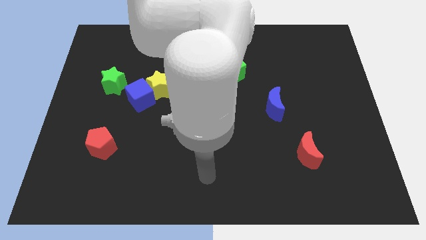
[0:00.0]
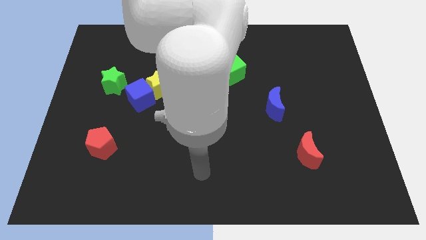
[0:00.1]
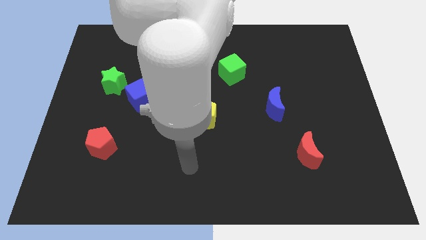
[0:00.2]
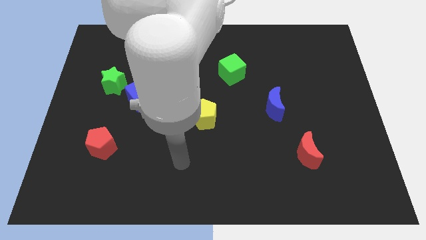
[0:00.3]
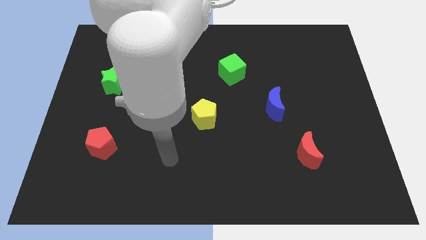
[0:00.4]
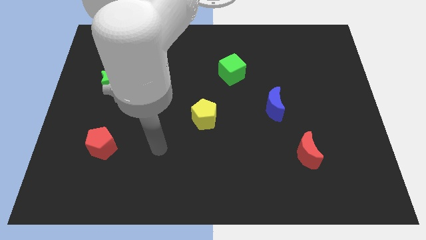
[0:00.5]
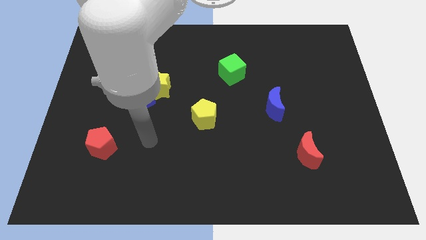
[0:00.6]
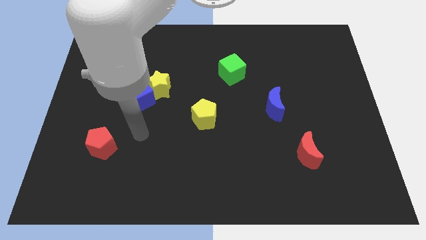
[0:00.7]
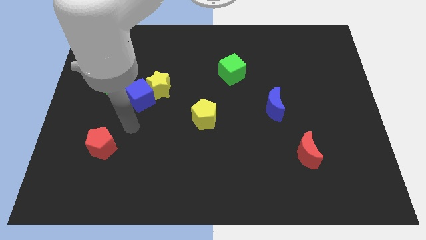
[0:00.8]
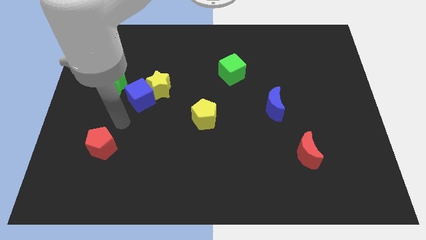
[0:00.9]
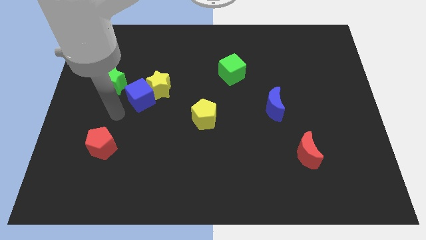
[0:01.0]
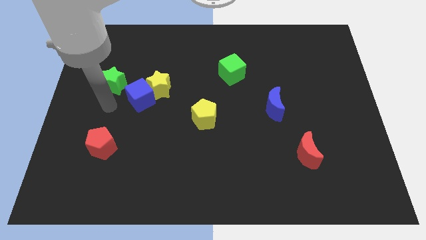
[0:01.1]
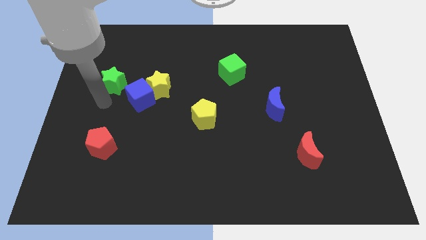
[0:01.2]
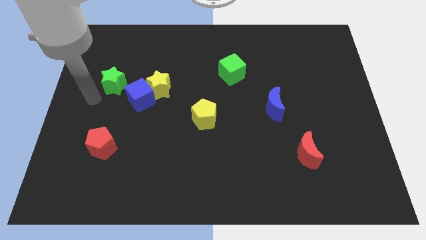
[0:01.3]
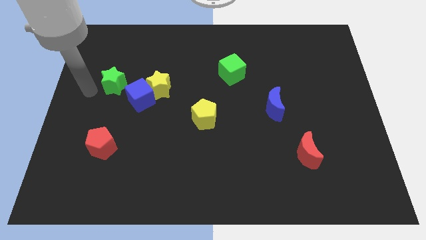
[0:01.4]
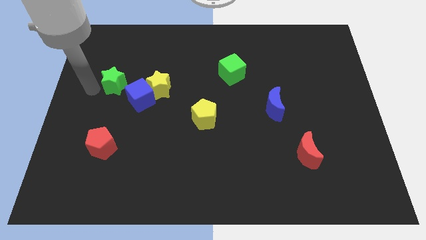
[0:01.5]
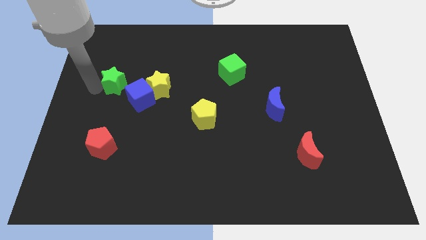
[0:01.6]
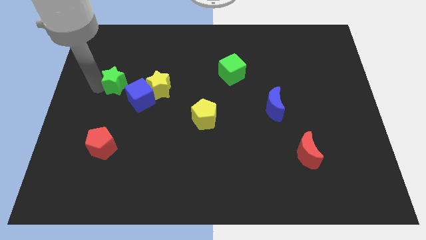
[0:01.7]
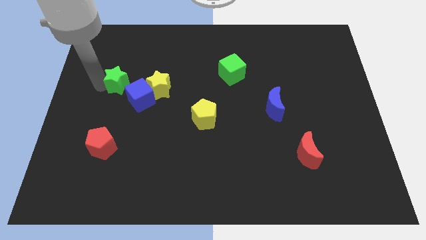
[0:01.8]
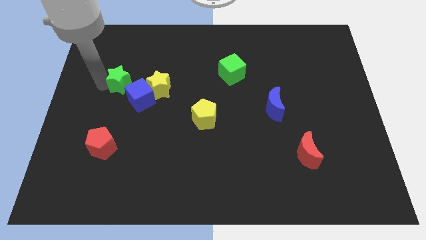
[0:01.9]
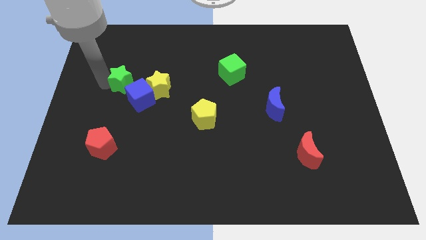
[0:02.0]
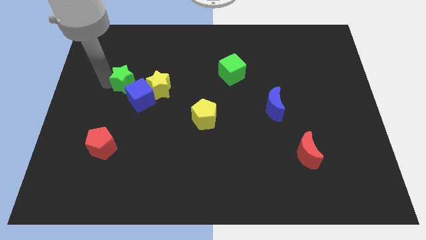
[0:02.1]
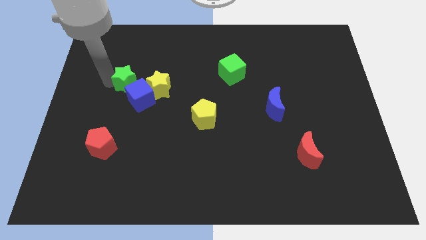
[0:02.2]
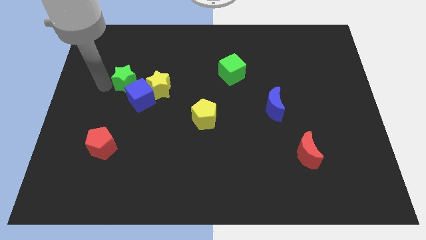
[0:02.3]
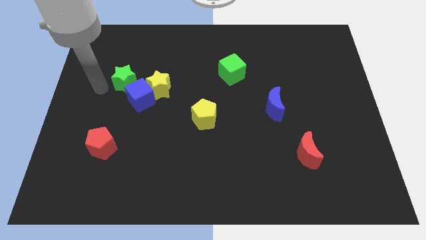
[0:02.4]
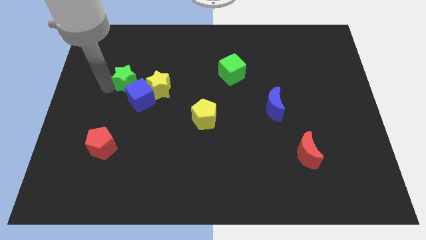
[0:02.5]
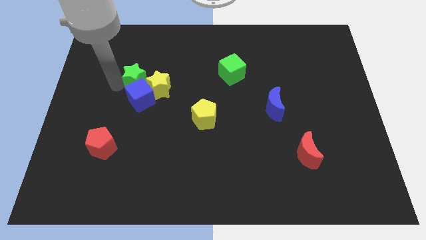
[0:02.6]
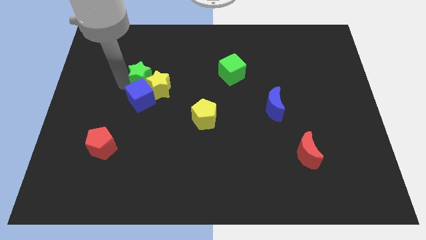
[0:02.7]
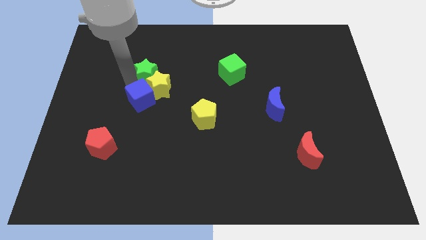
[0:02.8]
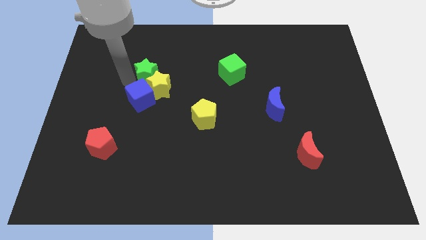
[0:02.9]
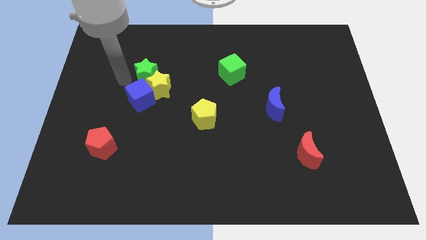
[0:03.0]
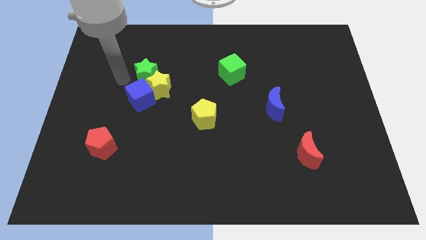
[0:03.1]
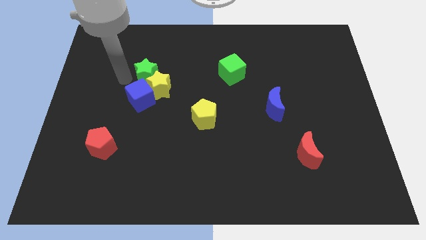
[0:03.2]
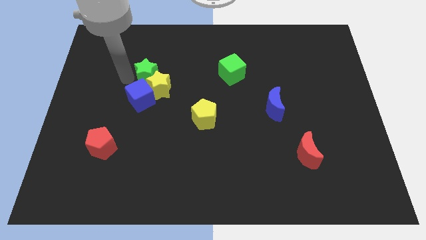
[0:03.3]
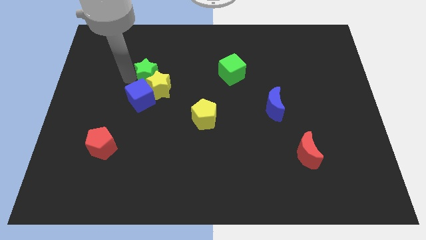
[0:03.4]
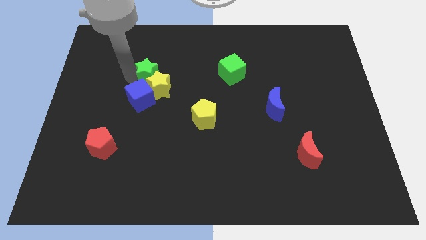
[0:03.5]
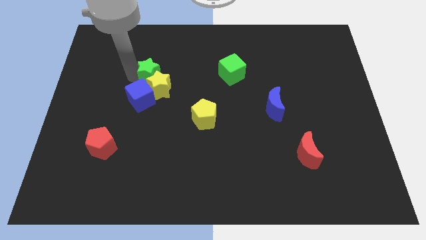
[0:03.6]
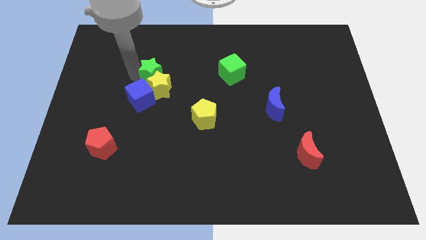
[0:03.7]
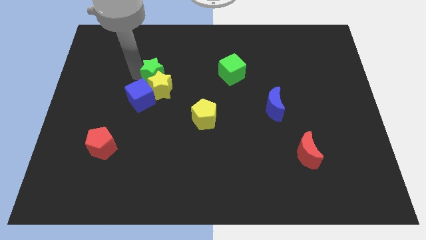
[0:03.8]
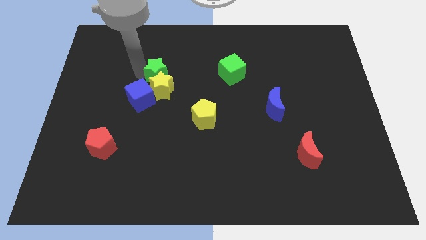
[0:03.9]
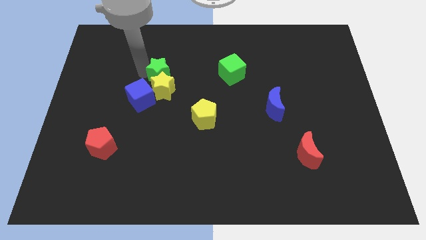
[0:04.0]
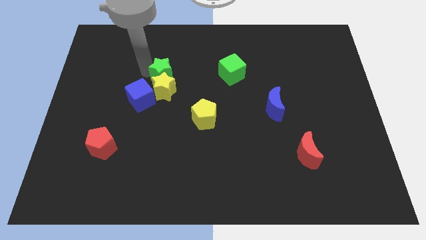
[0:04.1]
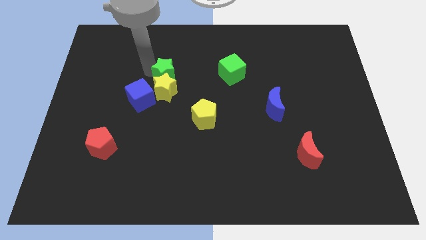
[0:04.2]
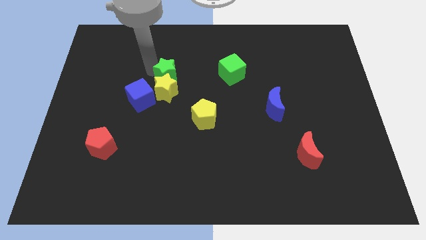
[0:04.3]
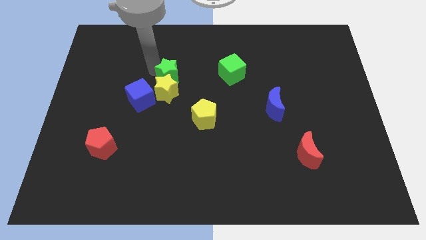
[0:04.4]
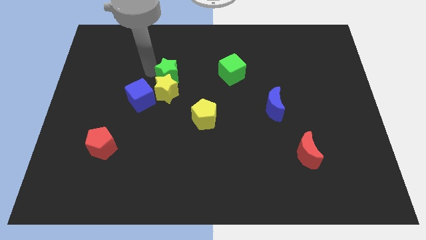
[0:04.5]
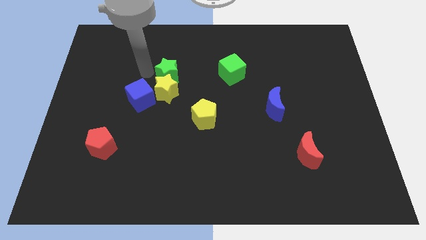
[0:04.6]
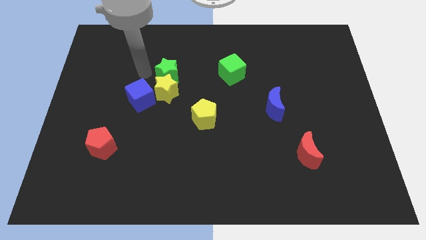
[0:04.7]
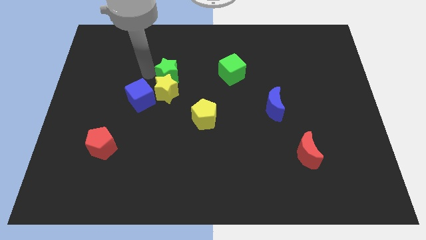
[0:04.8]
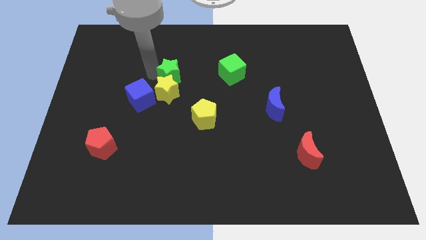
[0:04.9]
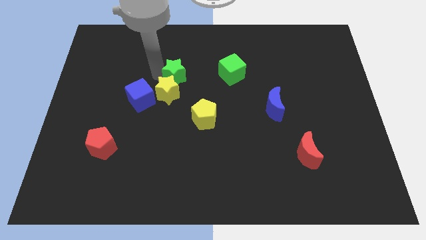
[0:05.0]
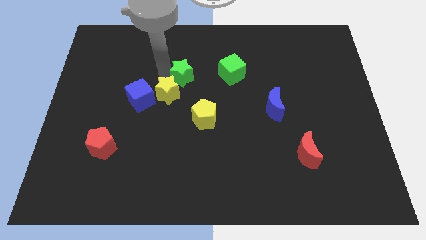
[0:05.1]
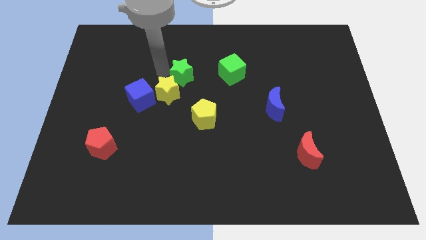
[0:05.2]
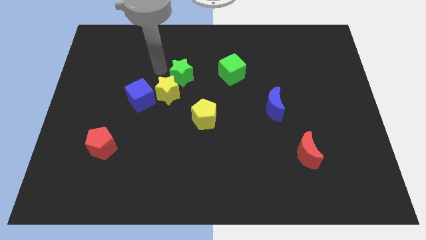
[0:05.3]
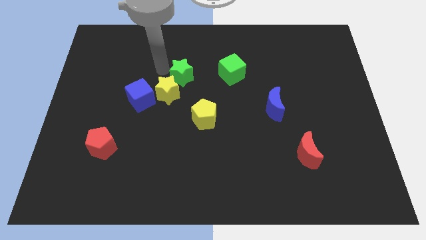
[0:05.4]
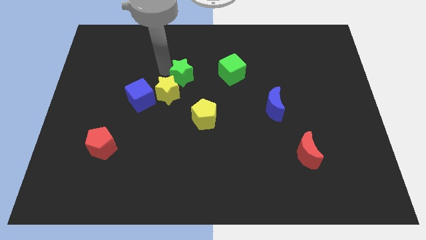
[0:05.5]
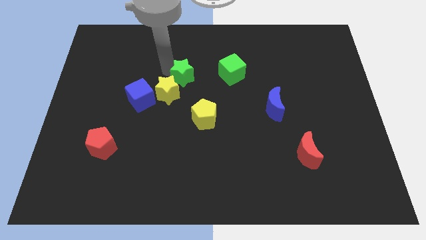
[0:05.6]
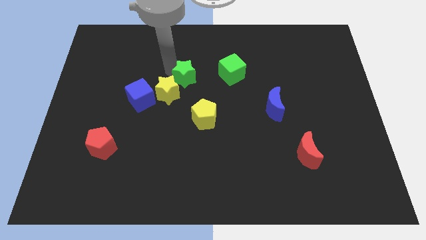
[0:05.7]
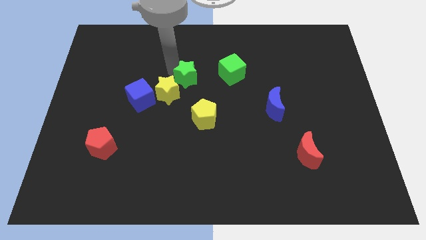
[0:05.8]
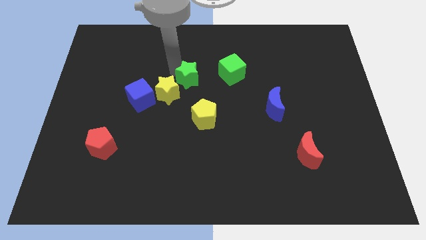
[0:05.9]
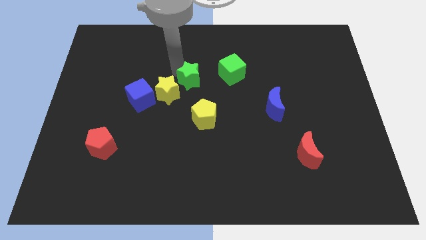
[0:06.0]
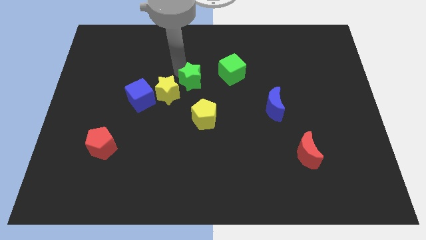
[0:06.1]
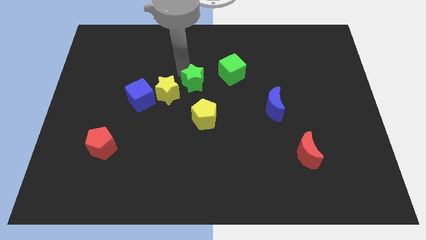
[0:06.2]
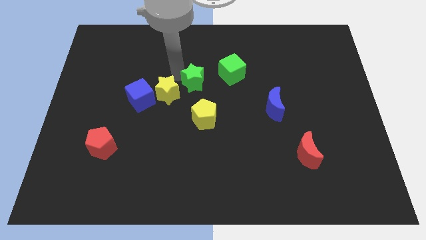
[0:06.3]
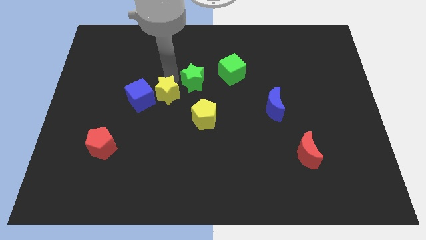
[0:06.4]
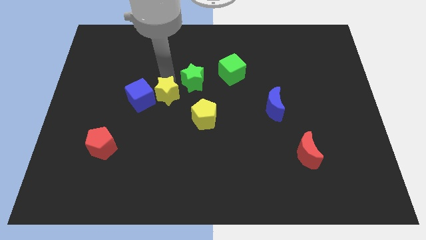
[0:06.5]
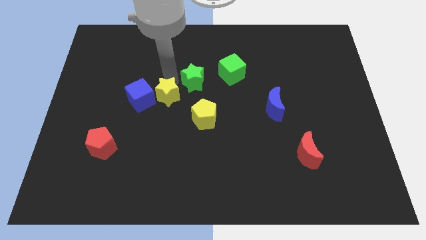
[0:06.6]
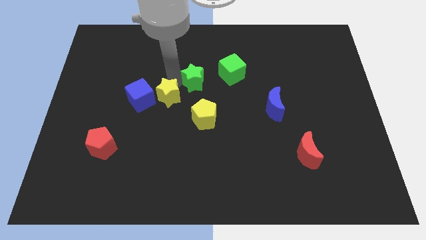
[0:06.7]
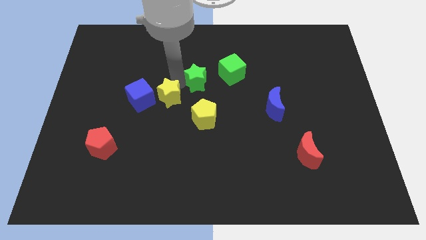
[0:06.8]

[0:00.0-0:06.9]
move the green star right

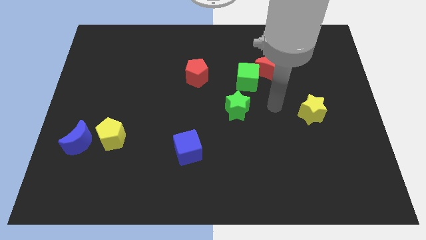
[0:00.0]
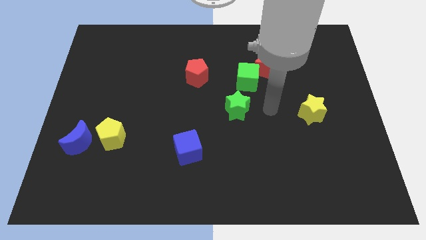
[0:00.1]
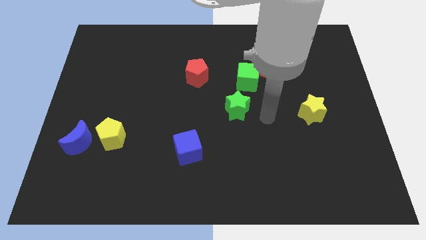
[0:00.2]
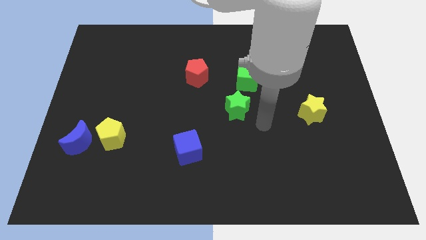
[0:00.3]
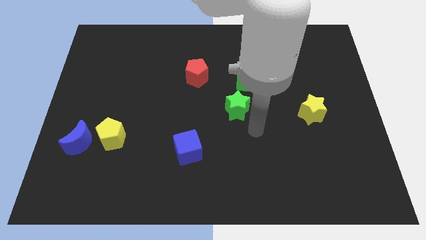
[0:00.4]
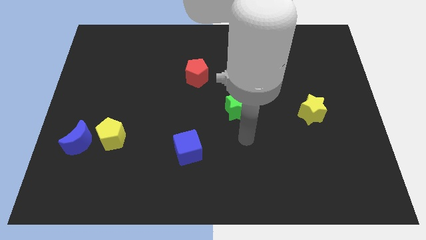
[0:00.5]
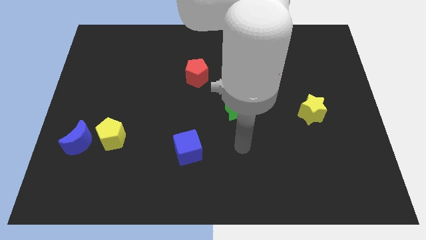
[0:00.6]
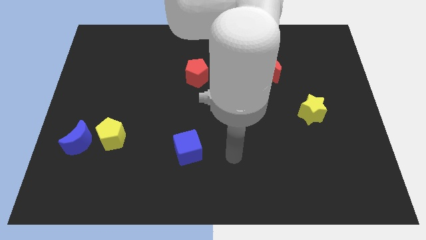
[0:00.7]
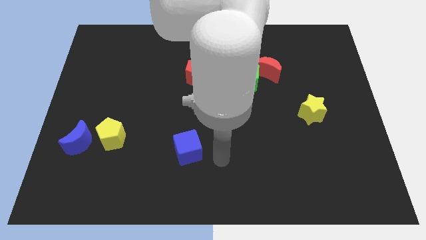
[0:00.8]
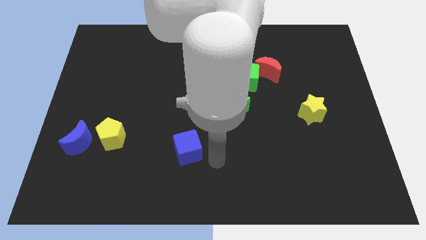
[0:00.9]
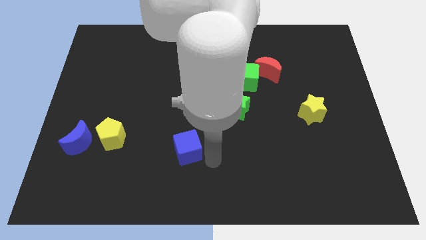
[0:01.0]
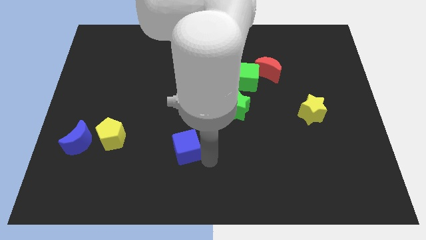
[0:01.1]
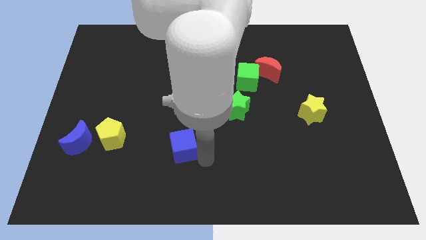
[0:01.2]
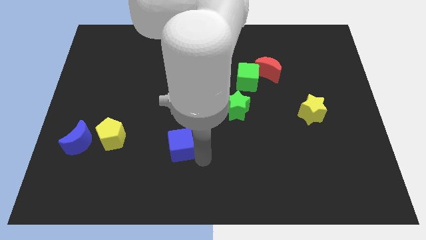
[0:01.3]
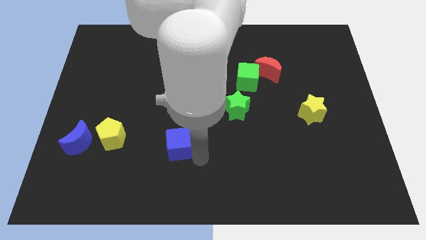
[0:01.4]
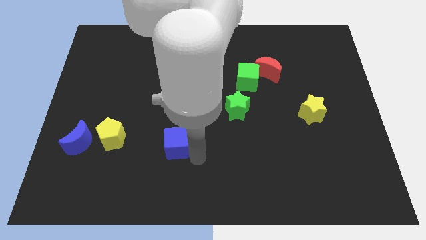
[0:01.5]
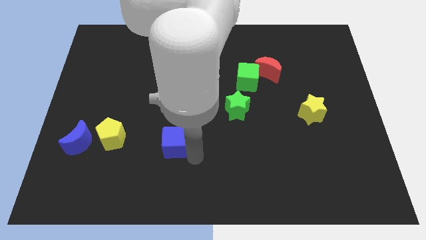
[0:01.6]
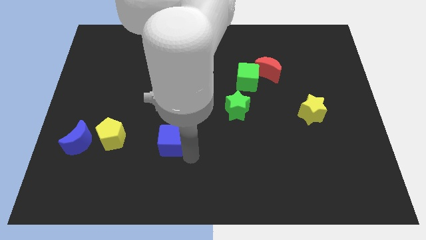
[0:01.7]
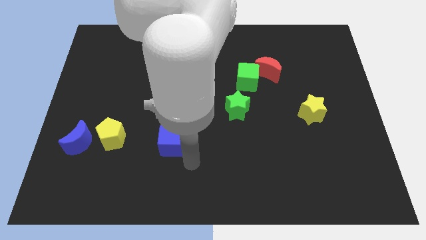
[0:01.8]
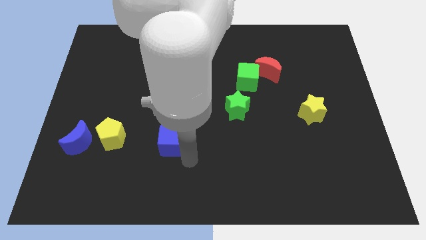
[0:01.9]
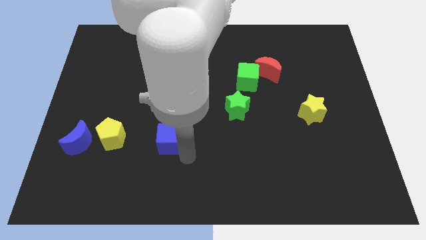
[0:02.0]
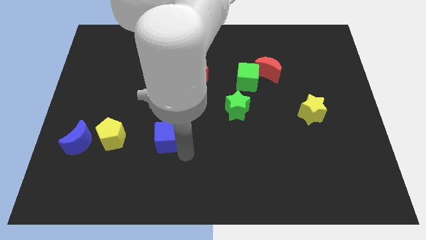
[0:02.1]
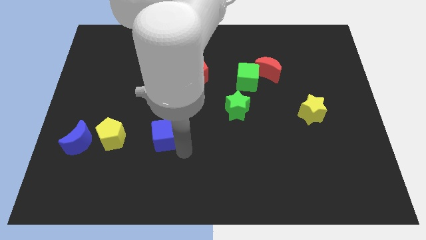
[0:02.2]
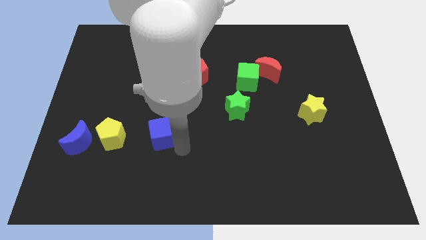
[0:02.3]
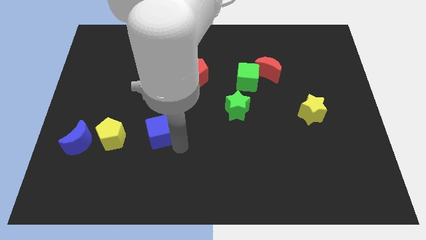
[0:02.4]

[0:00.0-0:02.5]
slightly push the blue cube upwards and to the left
